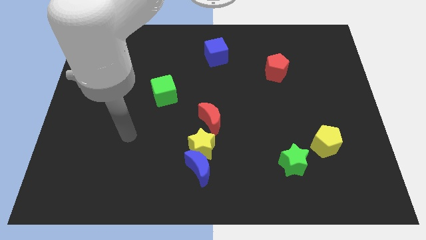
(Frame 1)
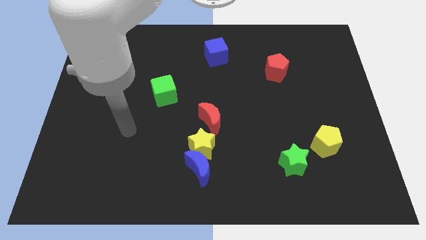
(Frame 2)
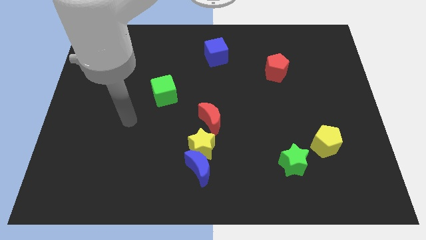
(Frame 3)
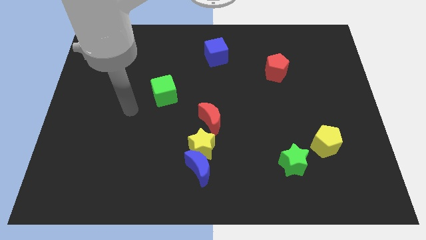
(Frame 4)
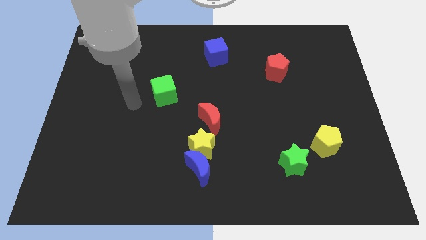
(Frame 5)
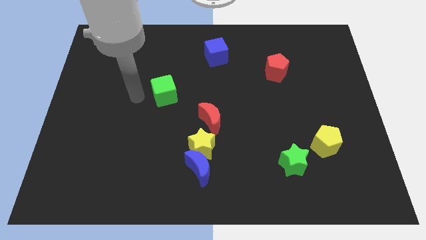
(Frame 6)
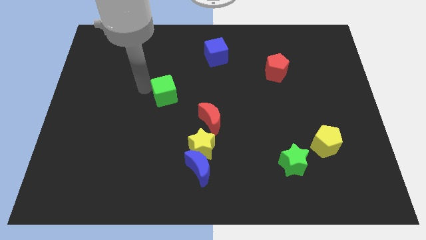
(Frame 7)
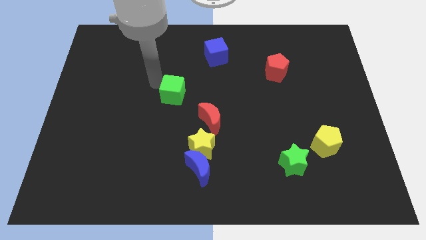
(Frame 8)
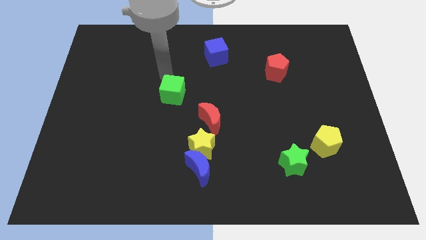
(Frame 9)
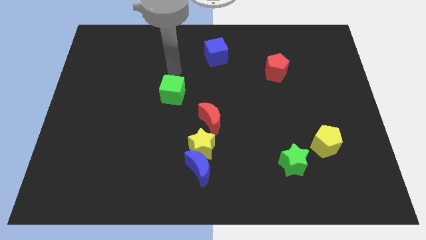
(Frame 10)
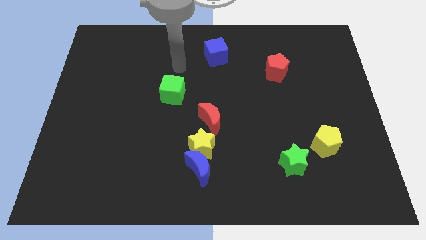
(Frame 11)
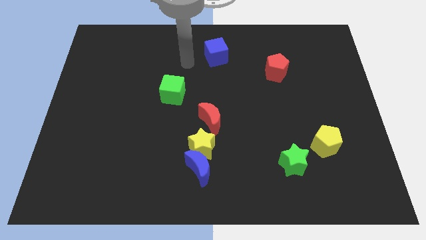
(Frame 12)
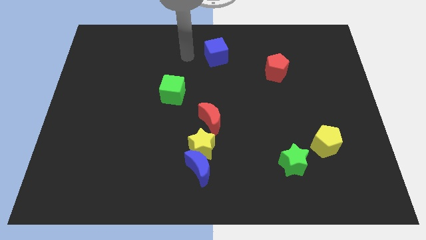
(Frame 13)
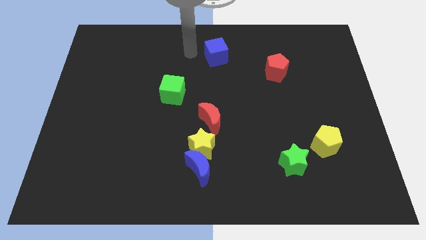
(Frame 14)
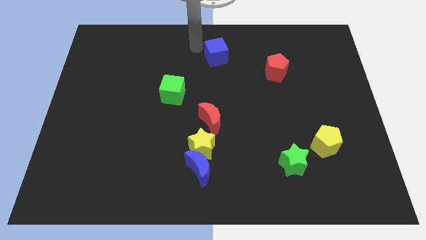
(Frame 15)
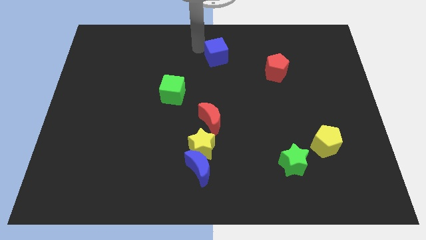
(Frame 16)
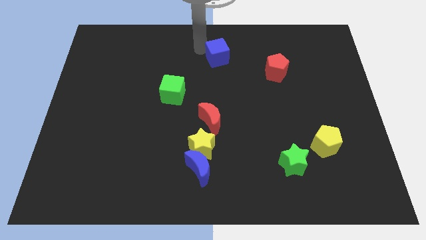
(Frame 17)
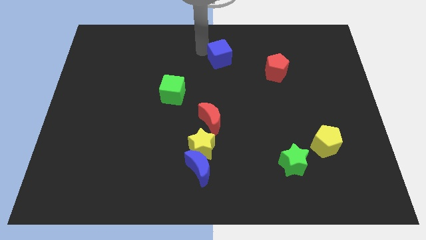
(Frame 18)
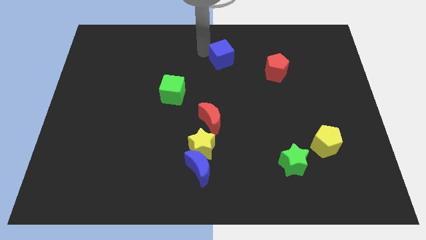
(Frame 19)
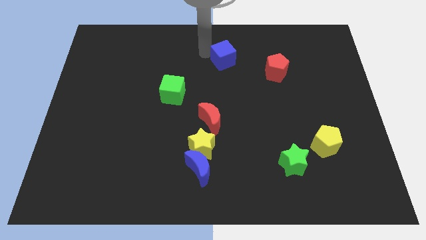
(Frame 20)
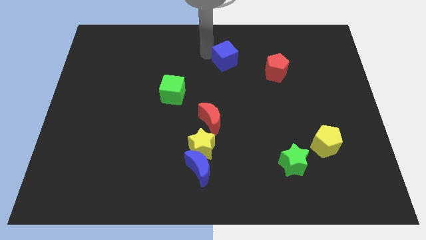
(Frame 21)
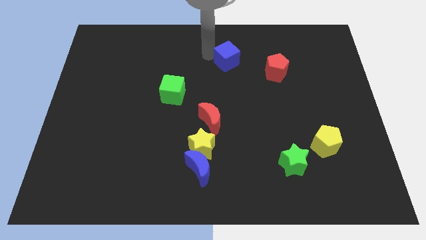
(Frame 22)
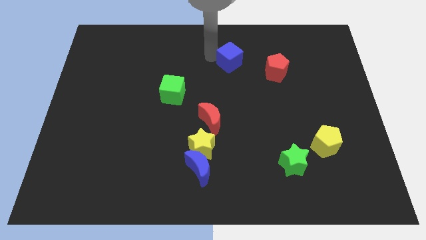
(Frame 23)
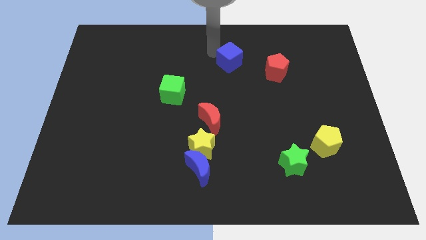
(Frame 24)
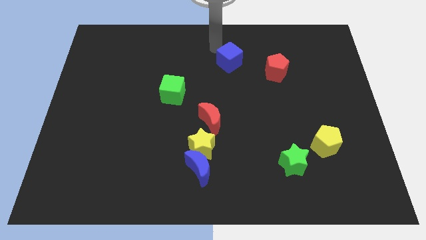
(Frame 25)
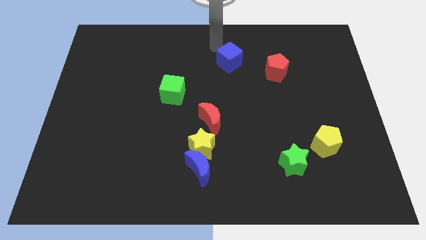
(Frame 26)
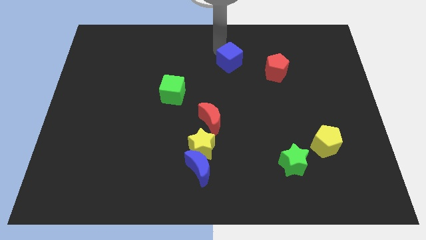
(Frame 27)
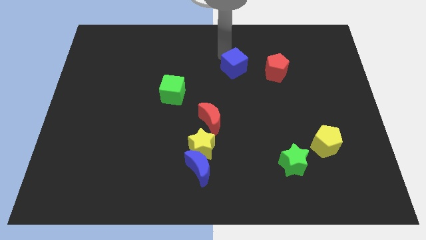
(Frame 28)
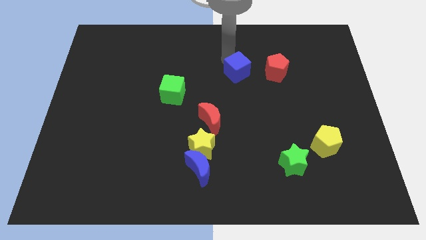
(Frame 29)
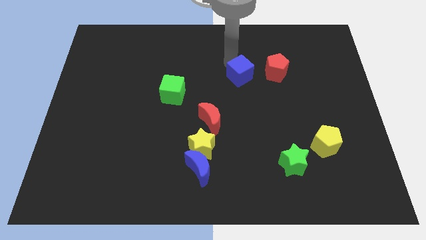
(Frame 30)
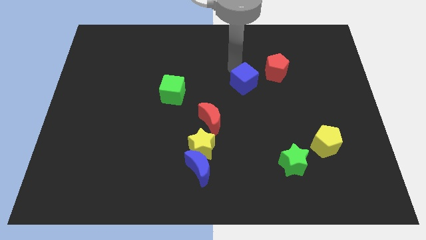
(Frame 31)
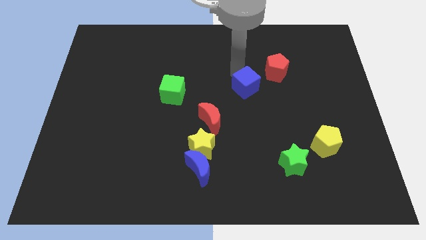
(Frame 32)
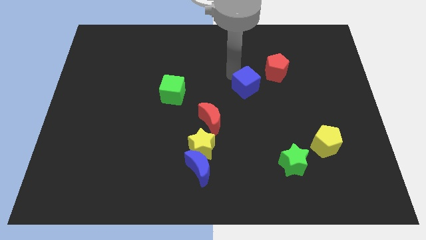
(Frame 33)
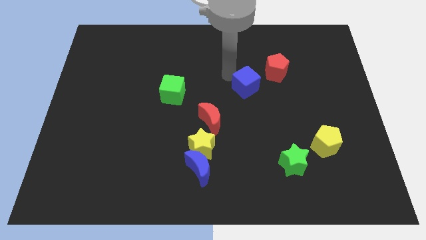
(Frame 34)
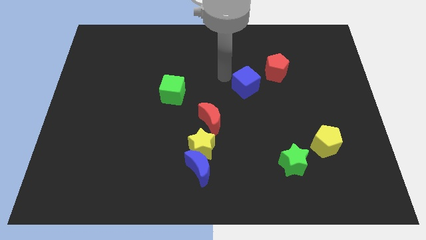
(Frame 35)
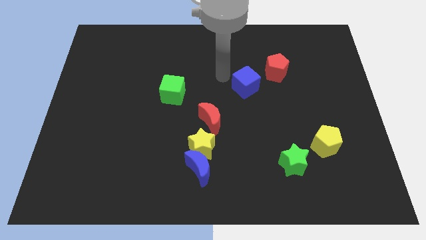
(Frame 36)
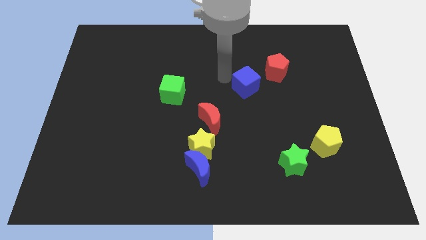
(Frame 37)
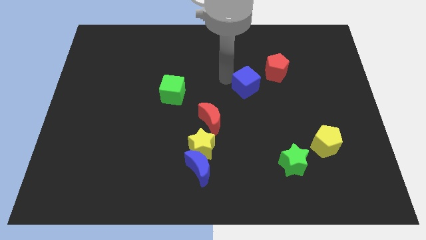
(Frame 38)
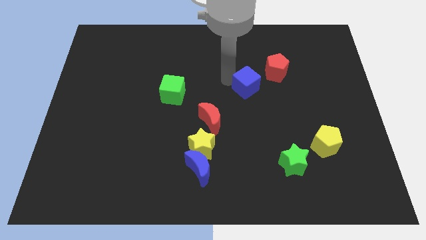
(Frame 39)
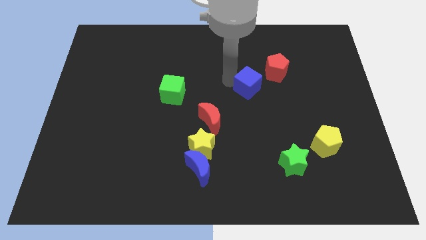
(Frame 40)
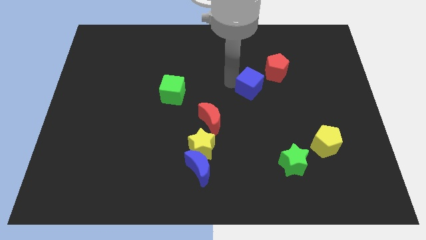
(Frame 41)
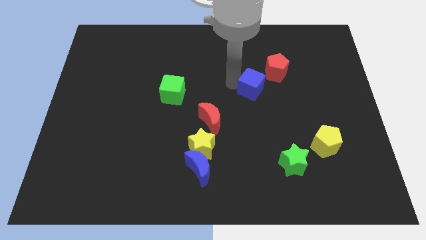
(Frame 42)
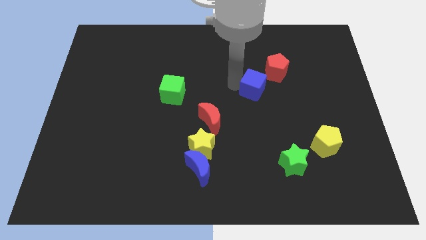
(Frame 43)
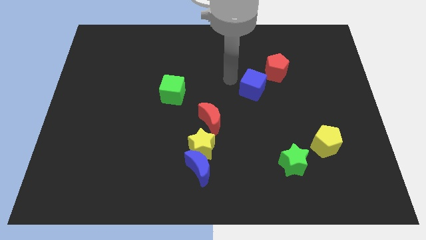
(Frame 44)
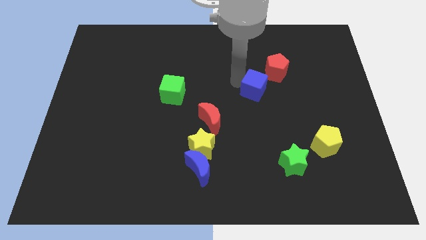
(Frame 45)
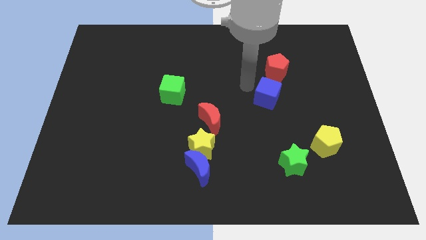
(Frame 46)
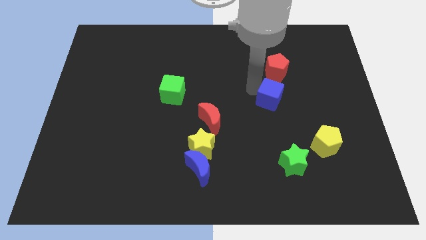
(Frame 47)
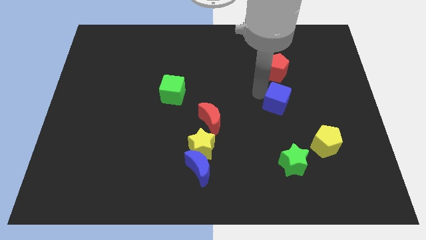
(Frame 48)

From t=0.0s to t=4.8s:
move the blue cube down and then to the right

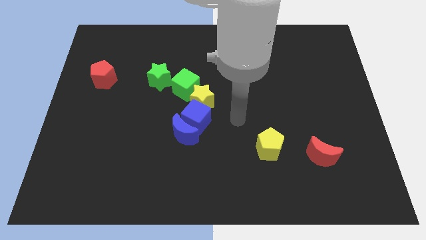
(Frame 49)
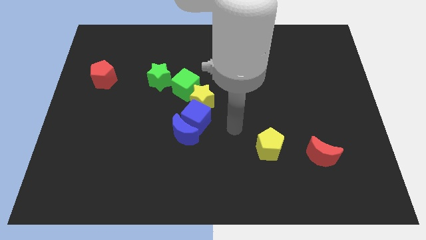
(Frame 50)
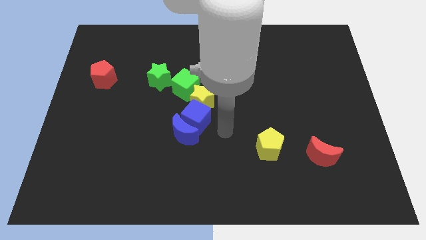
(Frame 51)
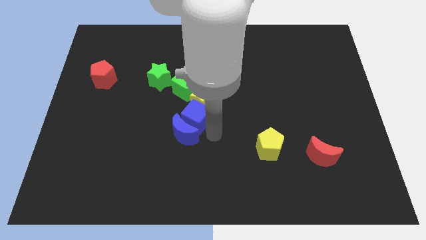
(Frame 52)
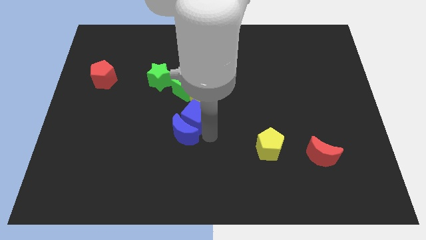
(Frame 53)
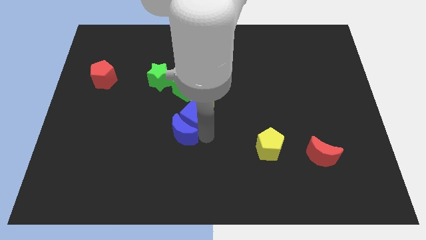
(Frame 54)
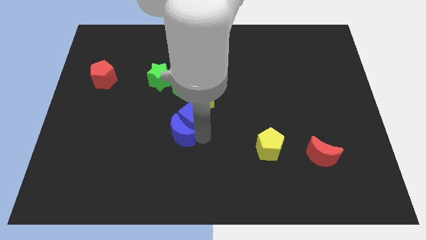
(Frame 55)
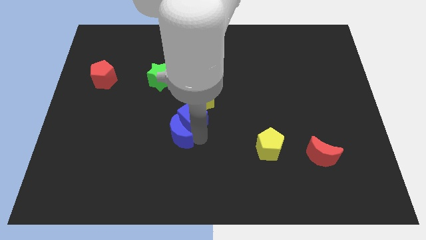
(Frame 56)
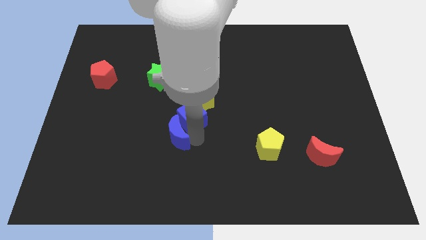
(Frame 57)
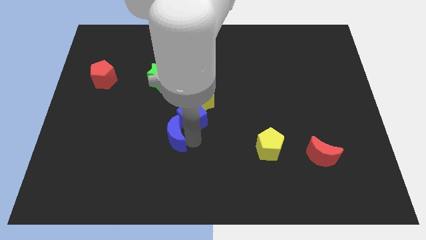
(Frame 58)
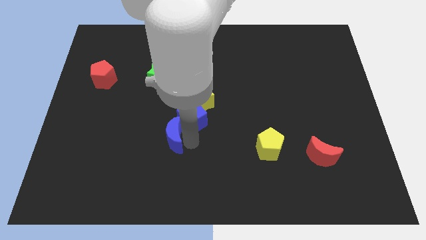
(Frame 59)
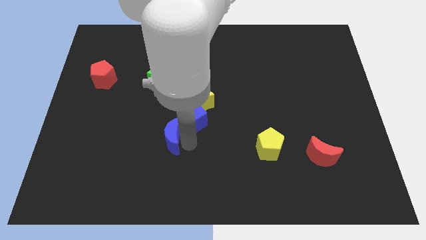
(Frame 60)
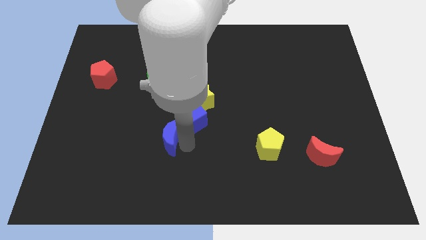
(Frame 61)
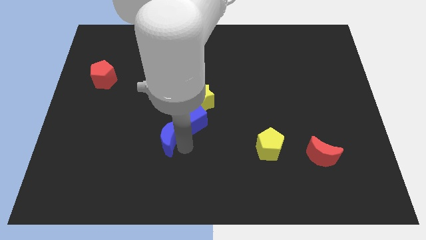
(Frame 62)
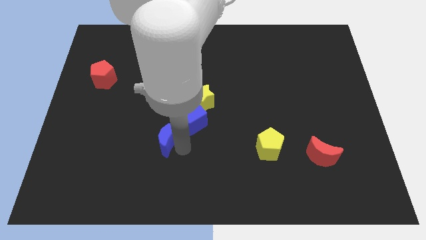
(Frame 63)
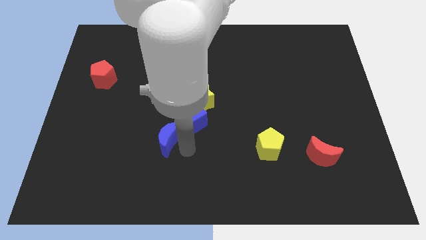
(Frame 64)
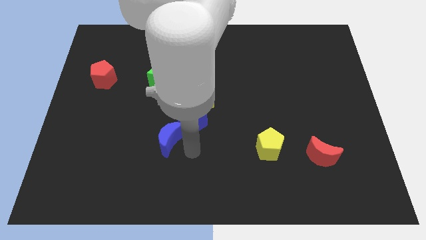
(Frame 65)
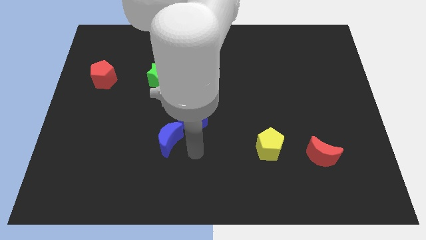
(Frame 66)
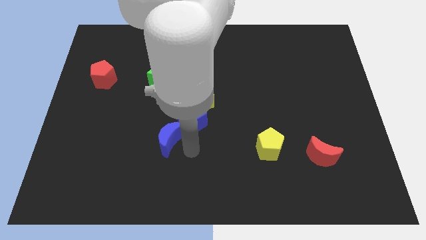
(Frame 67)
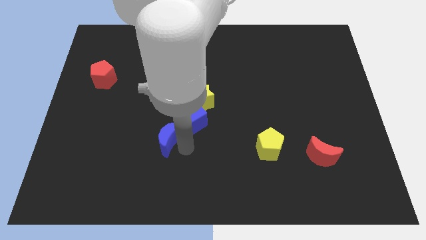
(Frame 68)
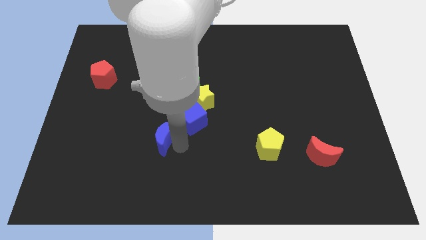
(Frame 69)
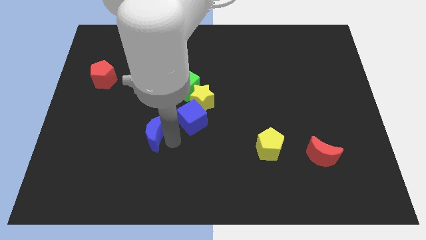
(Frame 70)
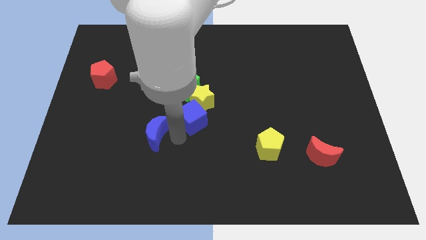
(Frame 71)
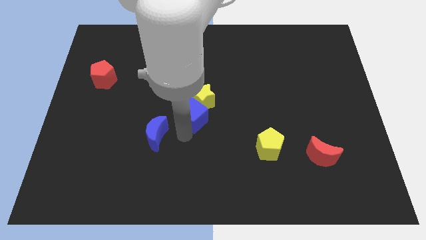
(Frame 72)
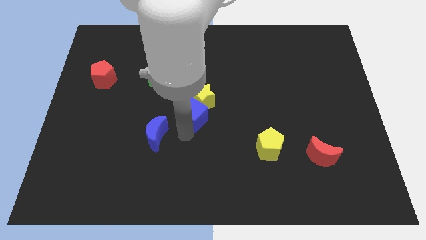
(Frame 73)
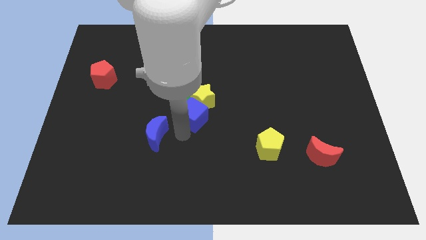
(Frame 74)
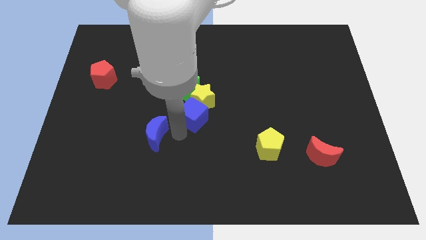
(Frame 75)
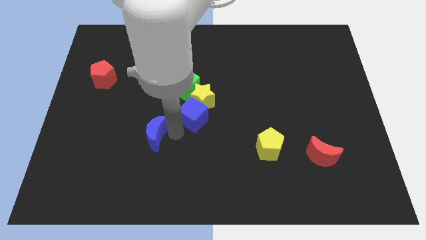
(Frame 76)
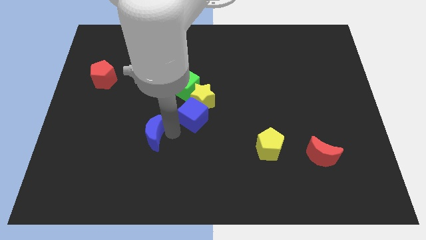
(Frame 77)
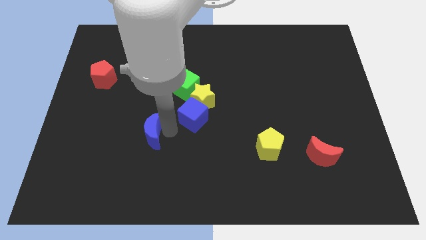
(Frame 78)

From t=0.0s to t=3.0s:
push the blue moon to the left a bit

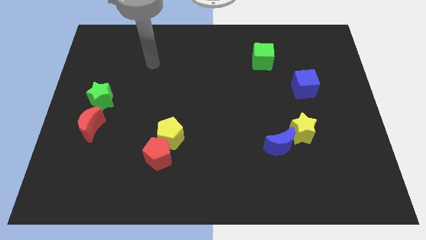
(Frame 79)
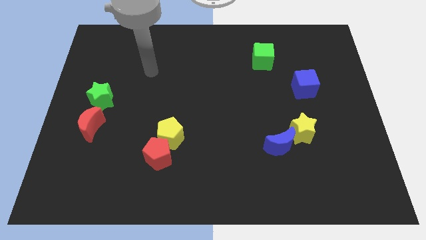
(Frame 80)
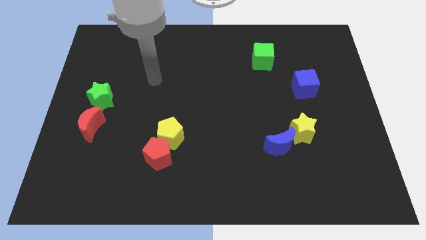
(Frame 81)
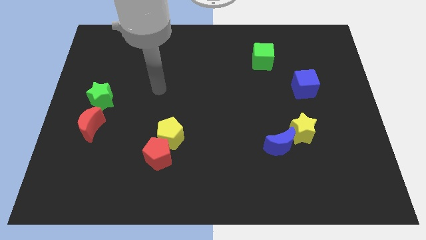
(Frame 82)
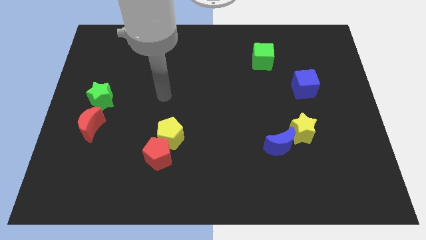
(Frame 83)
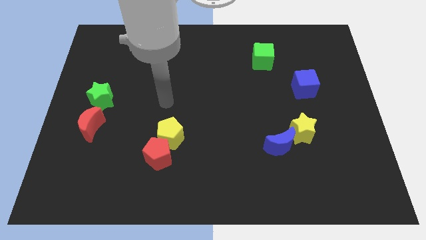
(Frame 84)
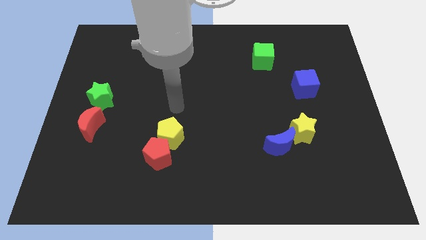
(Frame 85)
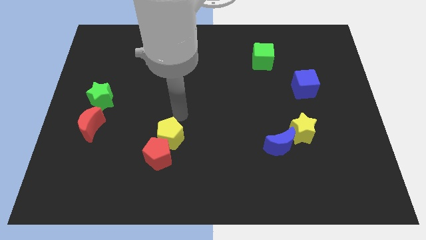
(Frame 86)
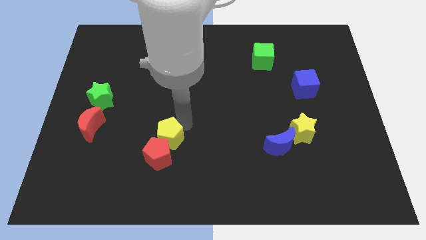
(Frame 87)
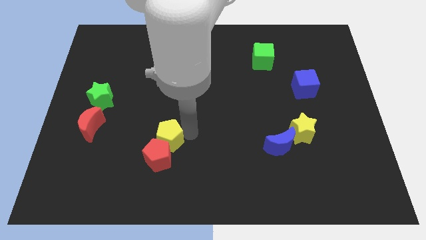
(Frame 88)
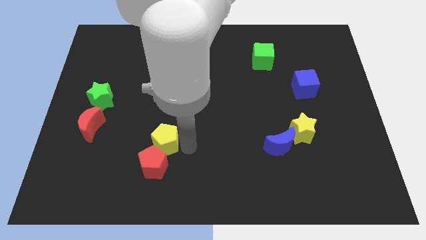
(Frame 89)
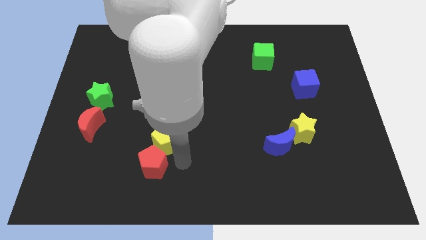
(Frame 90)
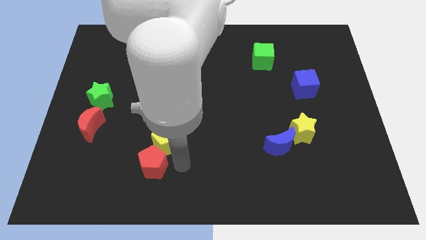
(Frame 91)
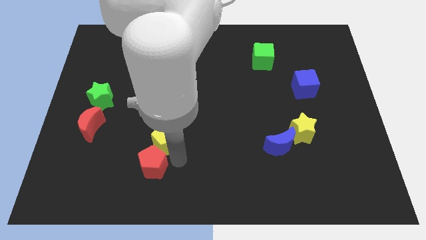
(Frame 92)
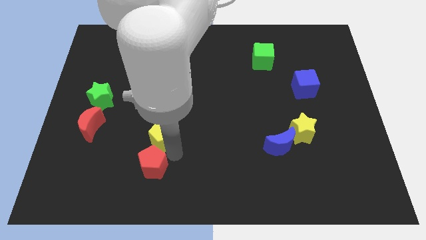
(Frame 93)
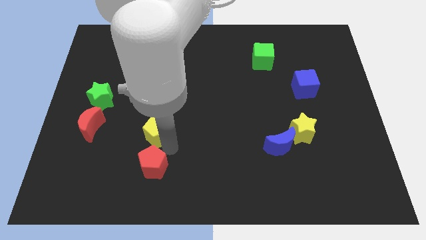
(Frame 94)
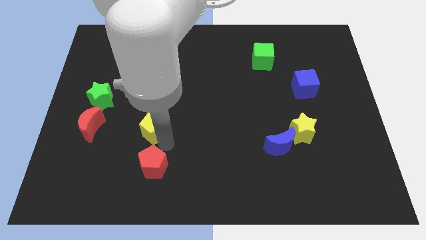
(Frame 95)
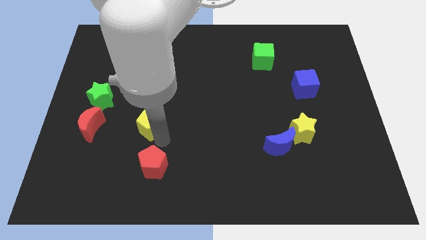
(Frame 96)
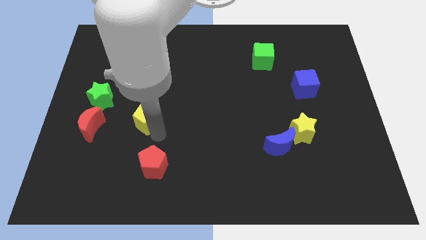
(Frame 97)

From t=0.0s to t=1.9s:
slightly push the yellow pentagon up and left
